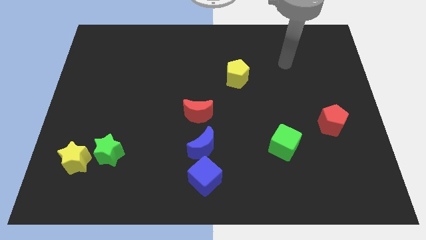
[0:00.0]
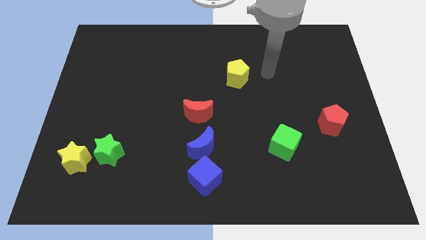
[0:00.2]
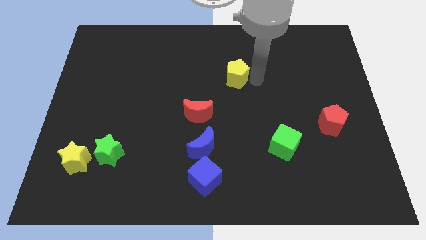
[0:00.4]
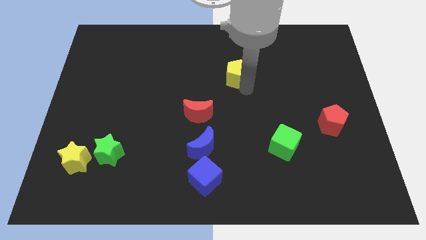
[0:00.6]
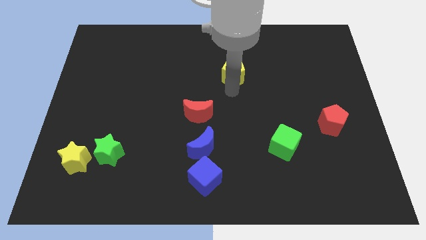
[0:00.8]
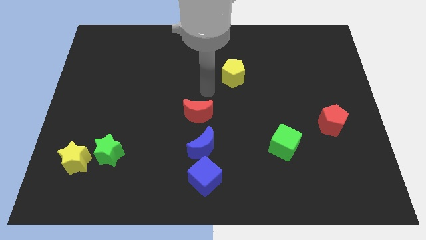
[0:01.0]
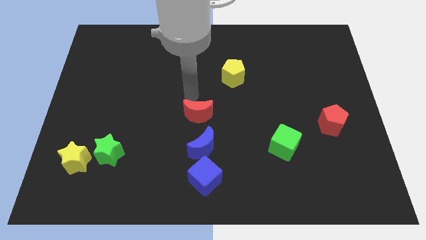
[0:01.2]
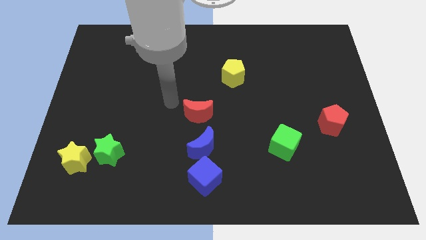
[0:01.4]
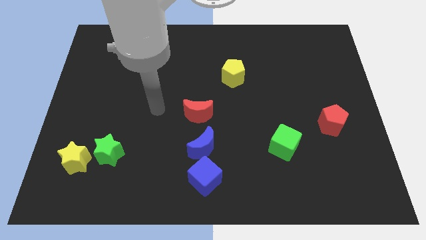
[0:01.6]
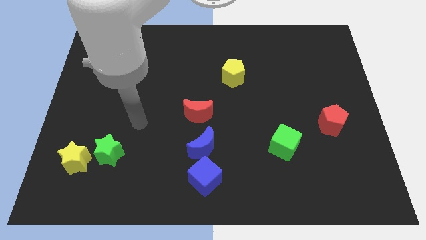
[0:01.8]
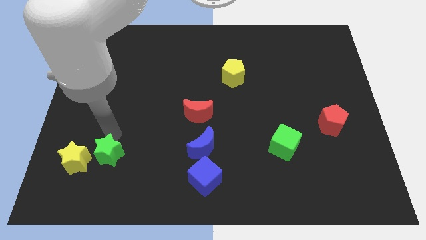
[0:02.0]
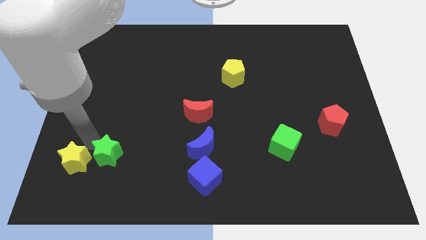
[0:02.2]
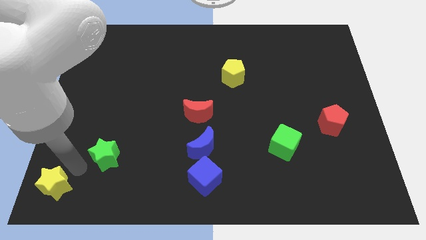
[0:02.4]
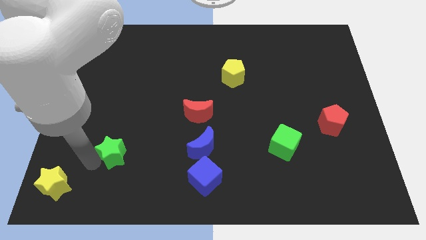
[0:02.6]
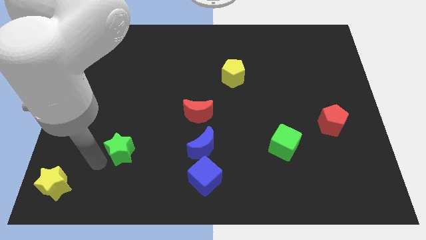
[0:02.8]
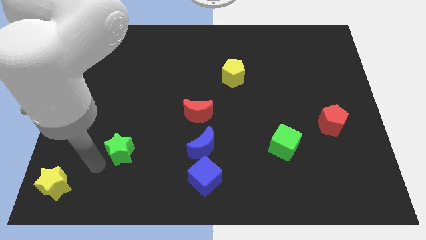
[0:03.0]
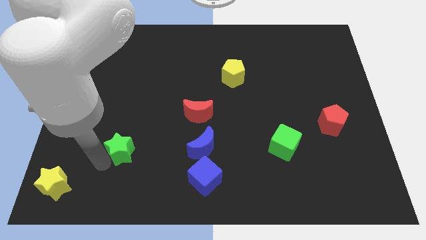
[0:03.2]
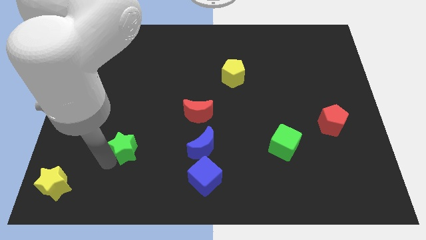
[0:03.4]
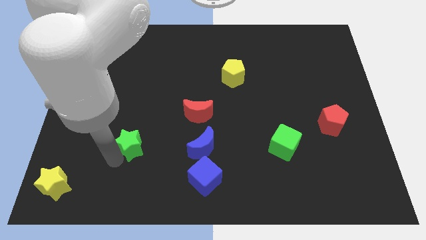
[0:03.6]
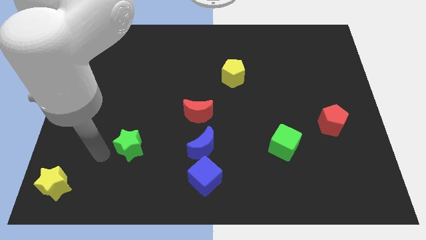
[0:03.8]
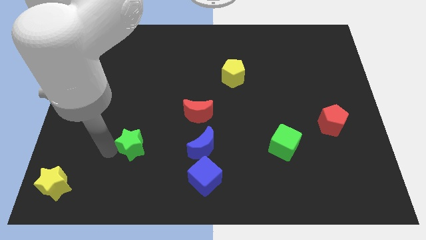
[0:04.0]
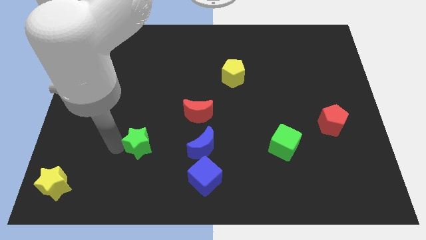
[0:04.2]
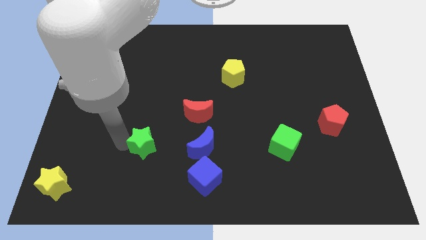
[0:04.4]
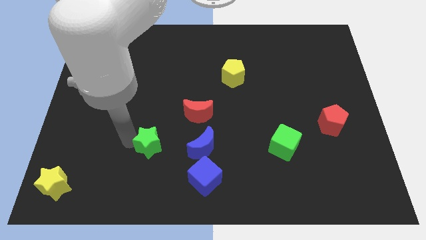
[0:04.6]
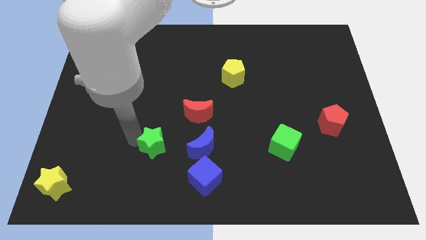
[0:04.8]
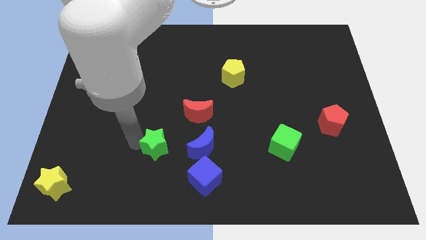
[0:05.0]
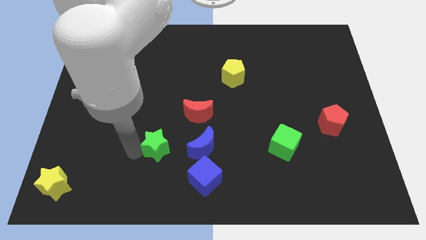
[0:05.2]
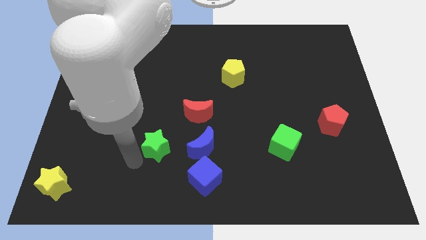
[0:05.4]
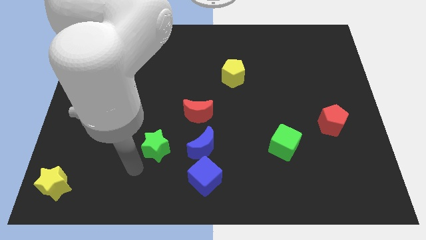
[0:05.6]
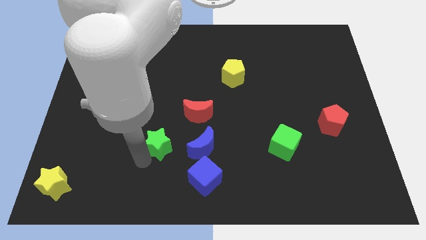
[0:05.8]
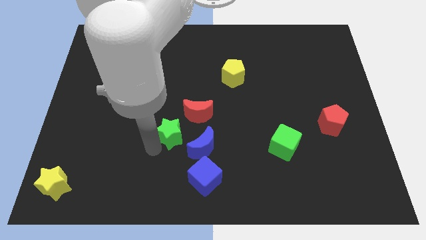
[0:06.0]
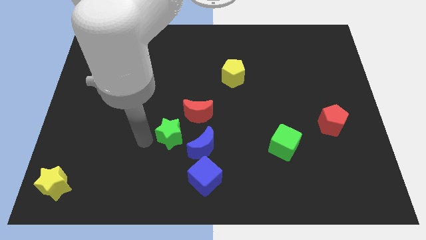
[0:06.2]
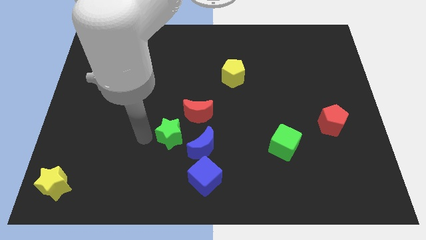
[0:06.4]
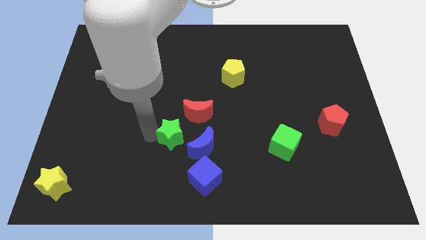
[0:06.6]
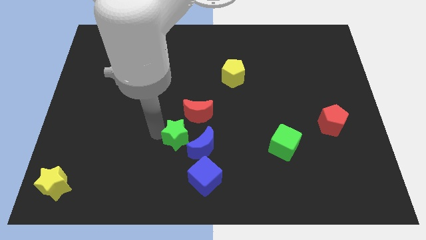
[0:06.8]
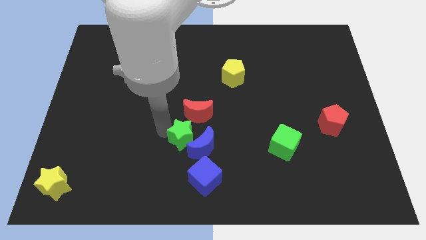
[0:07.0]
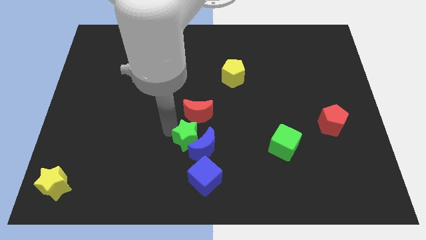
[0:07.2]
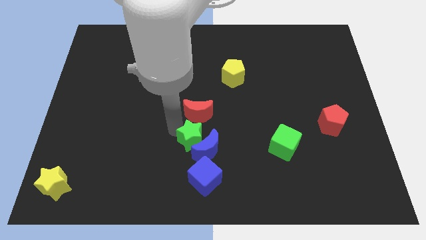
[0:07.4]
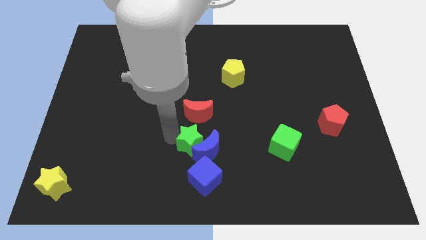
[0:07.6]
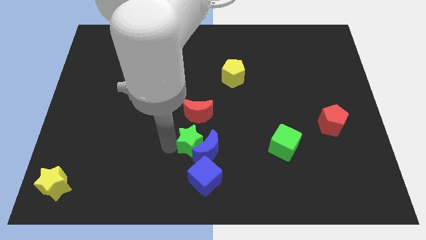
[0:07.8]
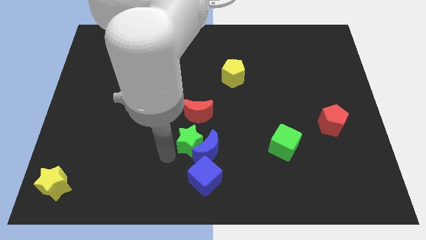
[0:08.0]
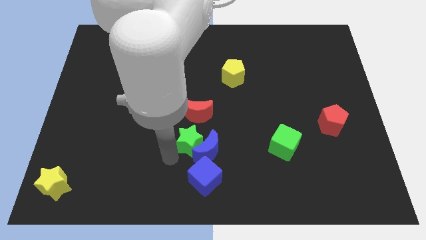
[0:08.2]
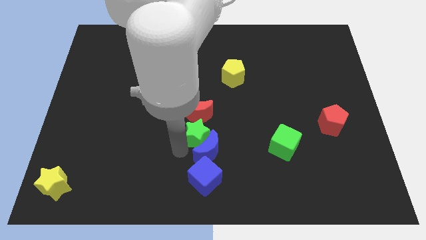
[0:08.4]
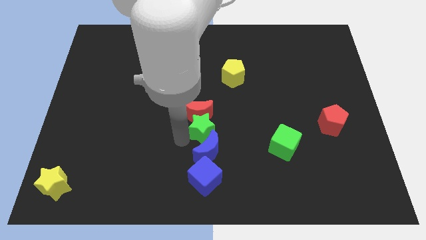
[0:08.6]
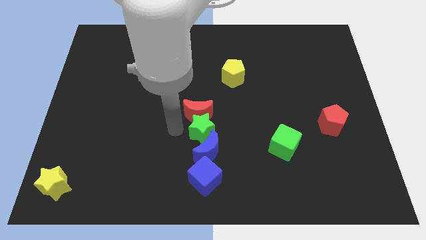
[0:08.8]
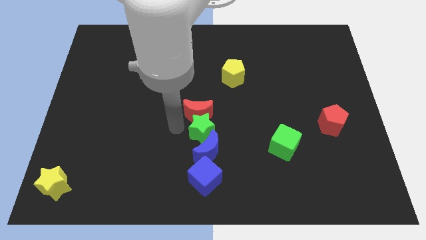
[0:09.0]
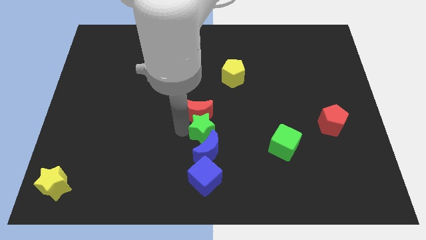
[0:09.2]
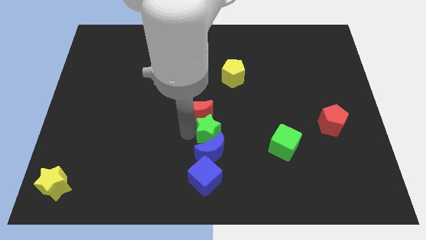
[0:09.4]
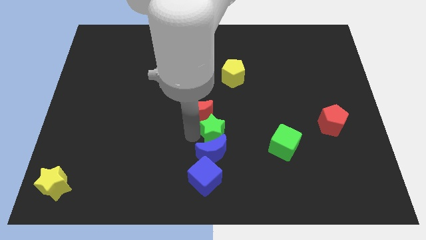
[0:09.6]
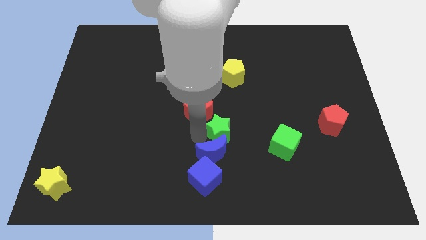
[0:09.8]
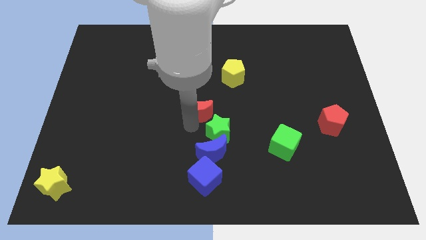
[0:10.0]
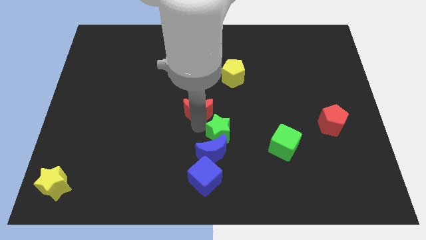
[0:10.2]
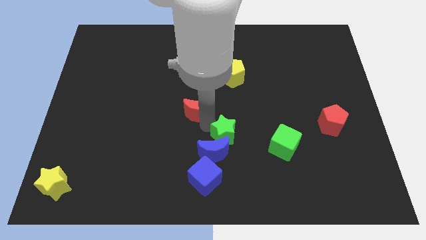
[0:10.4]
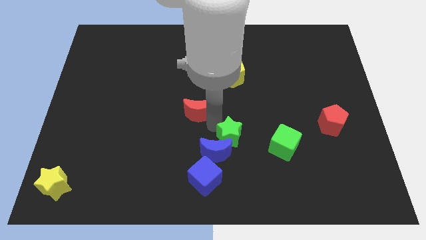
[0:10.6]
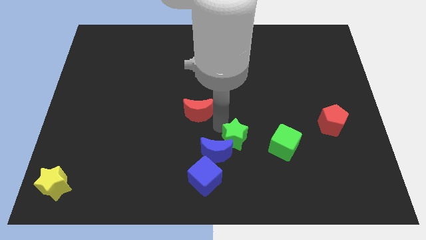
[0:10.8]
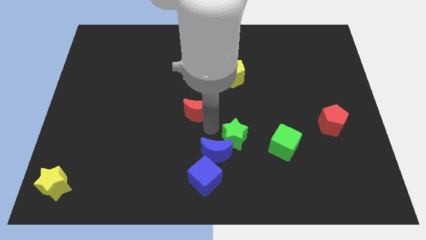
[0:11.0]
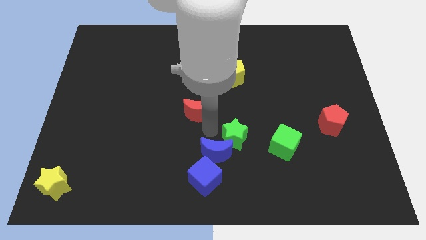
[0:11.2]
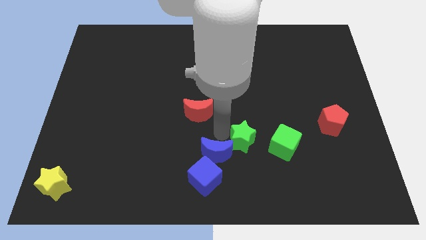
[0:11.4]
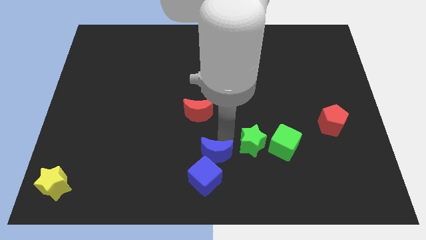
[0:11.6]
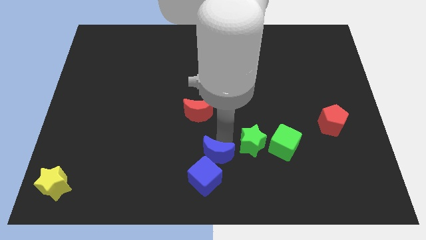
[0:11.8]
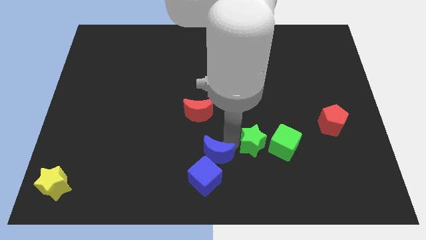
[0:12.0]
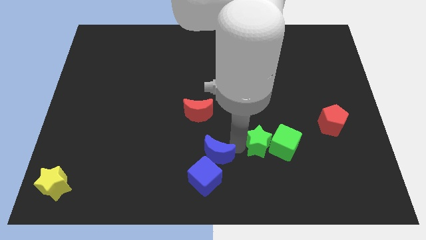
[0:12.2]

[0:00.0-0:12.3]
put the green star next to the green cube
